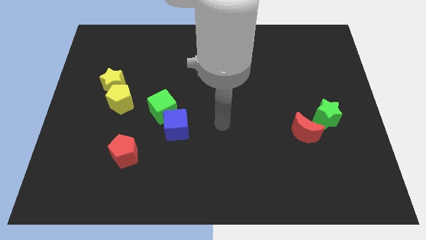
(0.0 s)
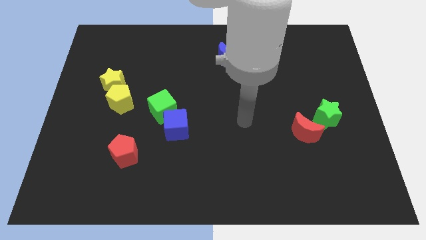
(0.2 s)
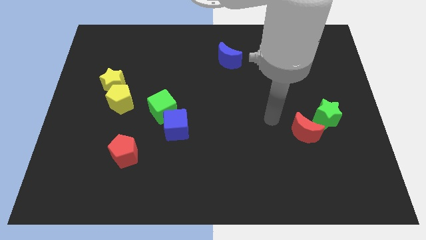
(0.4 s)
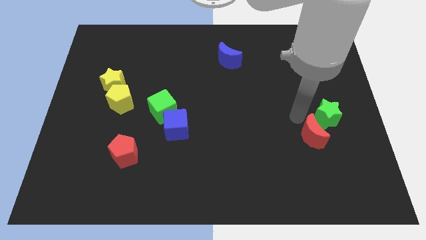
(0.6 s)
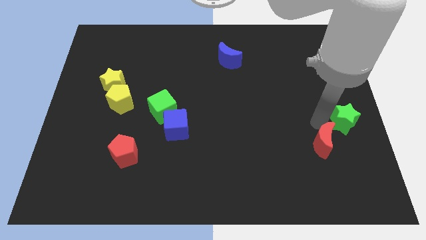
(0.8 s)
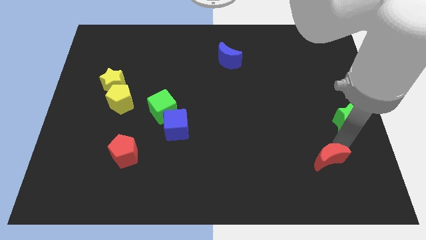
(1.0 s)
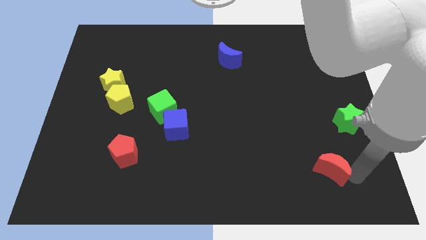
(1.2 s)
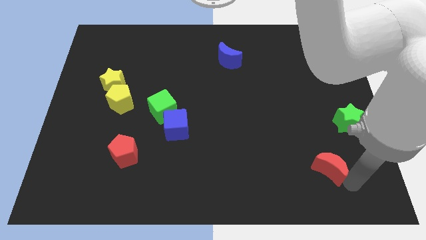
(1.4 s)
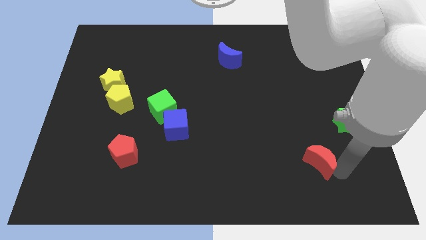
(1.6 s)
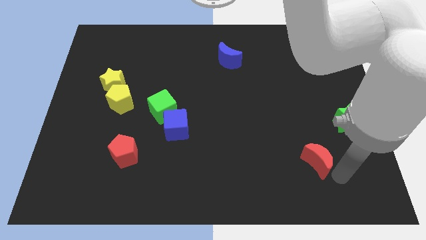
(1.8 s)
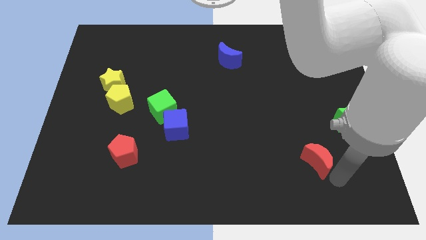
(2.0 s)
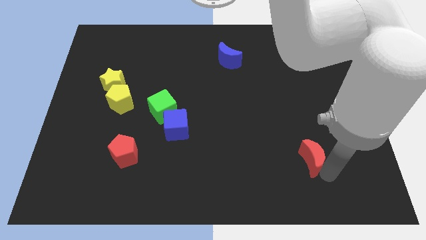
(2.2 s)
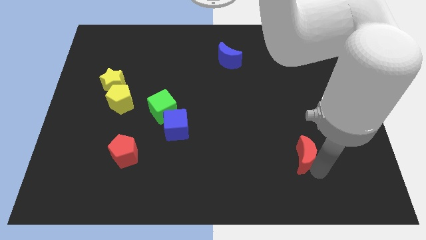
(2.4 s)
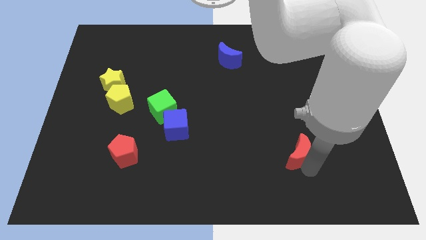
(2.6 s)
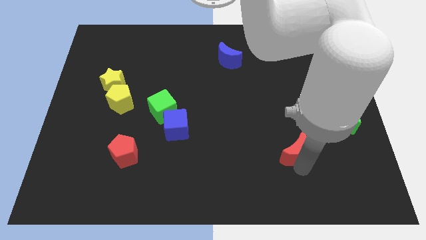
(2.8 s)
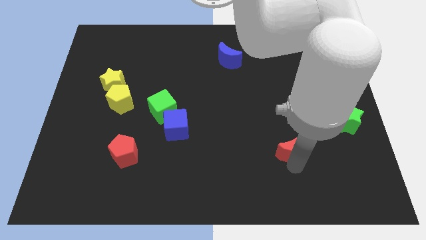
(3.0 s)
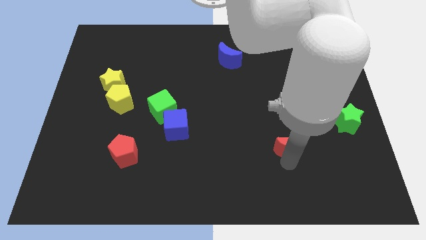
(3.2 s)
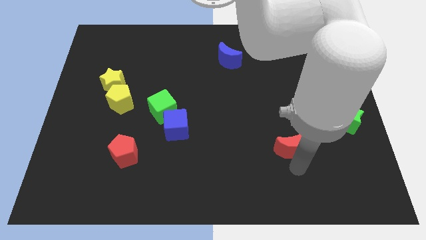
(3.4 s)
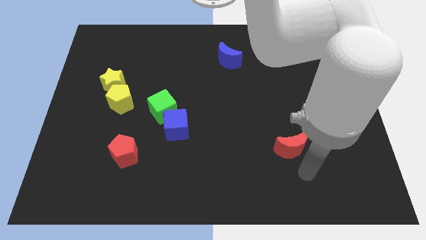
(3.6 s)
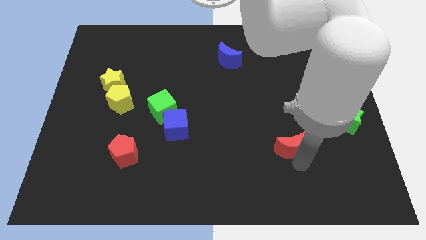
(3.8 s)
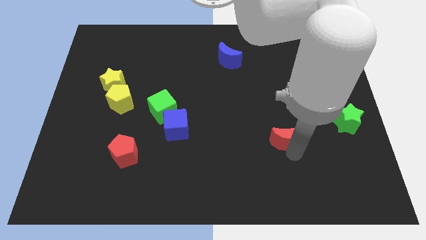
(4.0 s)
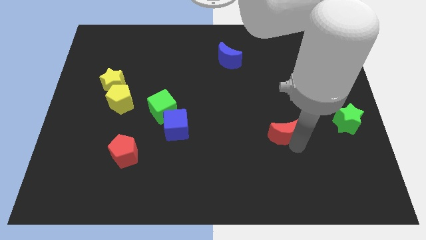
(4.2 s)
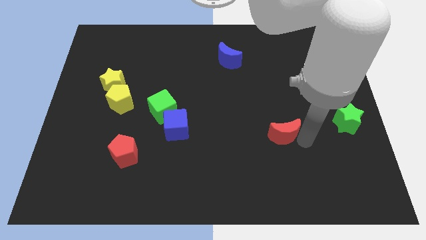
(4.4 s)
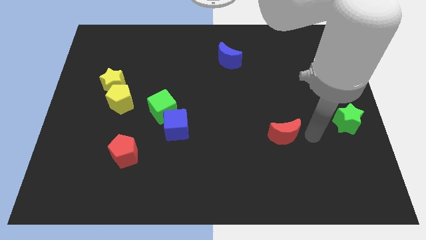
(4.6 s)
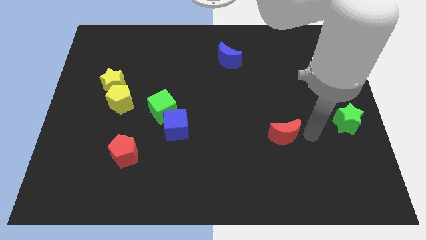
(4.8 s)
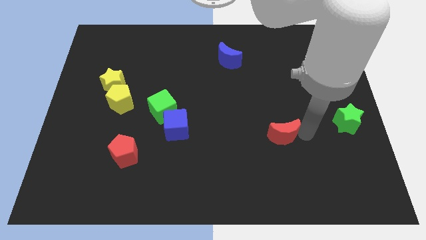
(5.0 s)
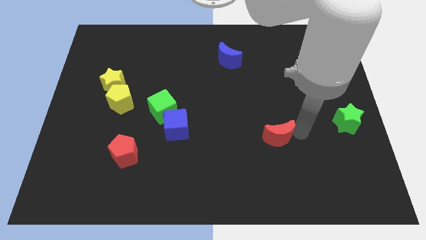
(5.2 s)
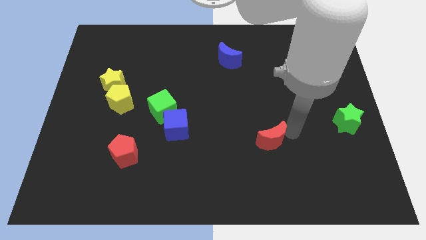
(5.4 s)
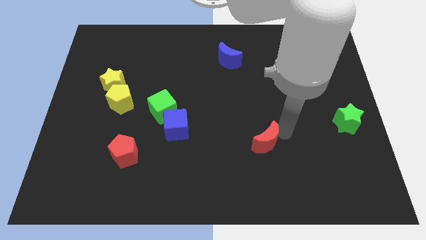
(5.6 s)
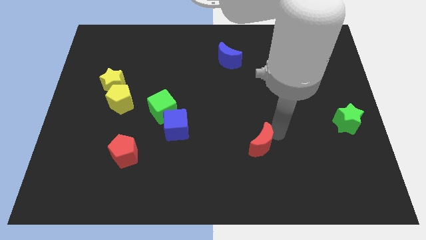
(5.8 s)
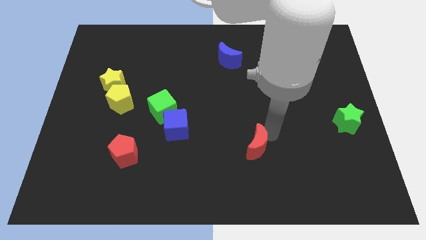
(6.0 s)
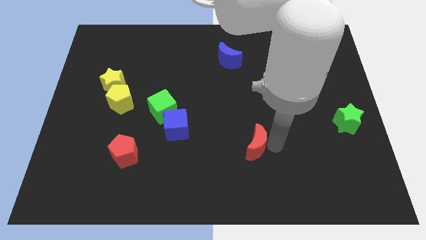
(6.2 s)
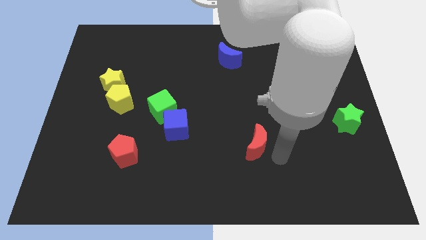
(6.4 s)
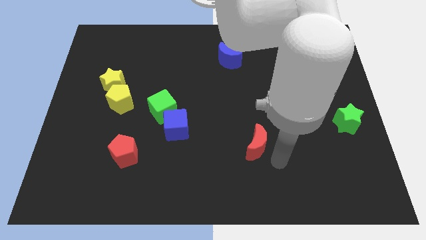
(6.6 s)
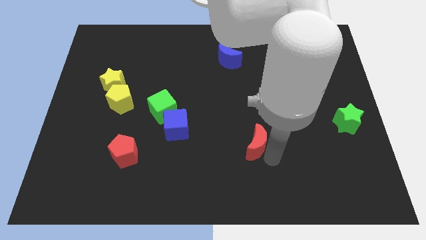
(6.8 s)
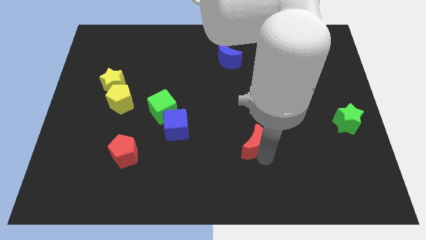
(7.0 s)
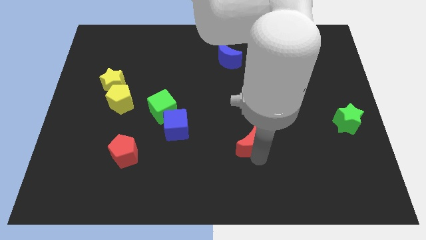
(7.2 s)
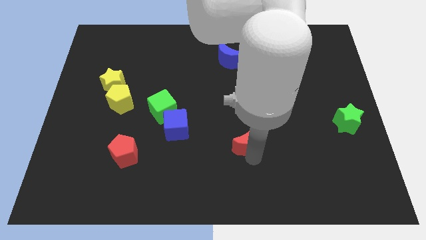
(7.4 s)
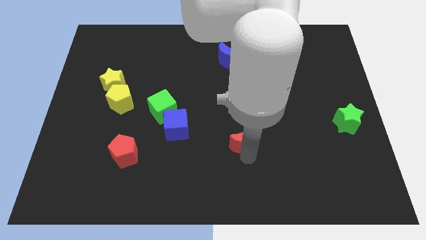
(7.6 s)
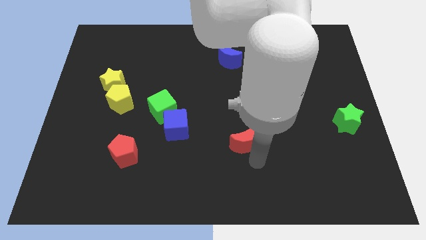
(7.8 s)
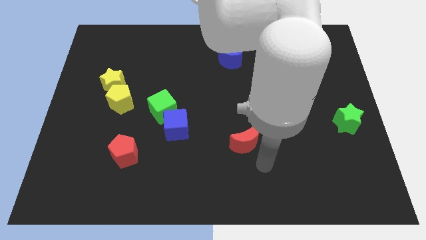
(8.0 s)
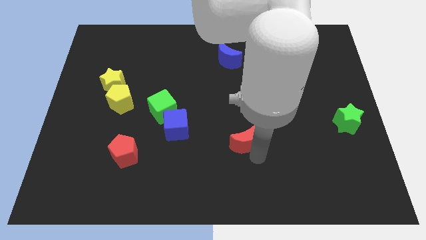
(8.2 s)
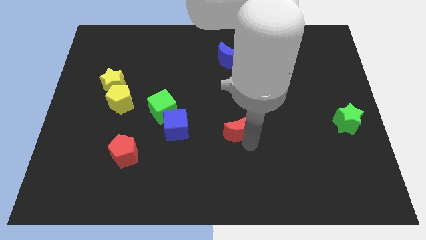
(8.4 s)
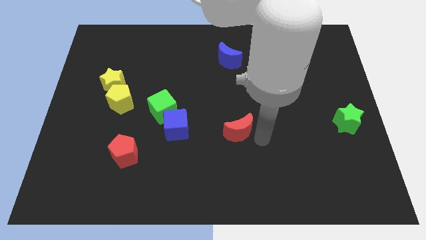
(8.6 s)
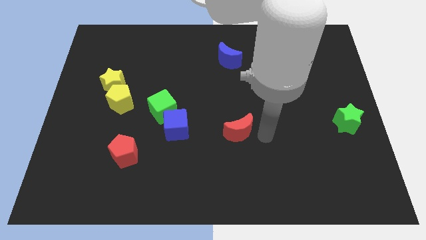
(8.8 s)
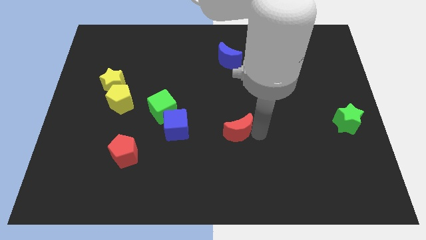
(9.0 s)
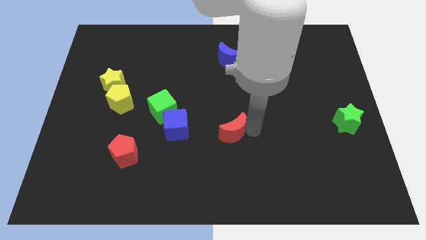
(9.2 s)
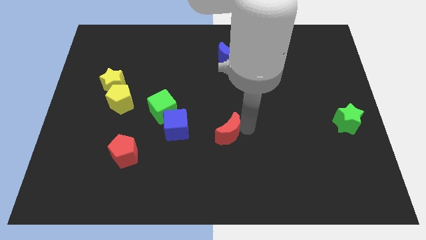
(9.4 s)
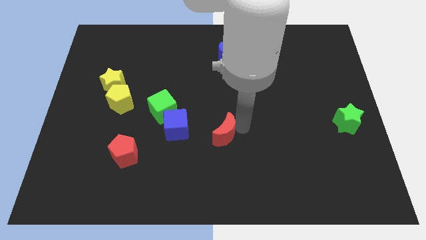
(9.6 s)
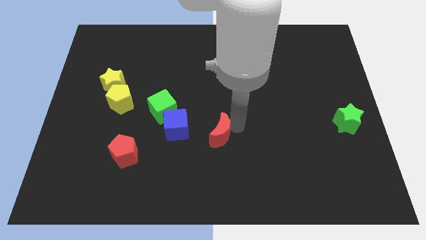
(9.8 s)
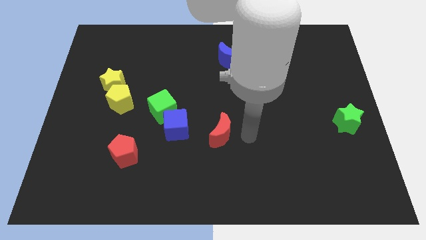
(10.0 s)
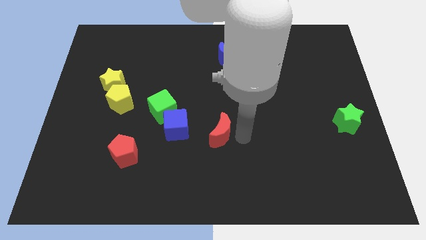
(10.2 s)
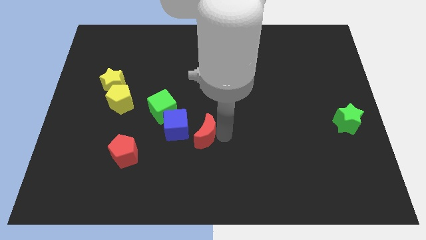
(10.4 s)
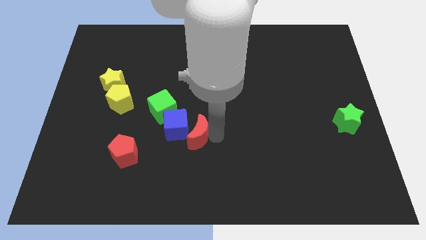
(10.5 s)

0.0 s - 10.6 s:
move the red moon to the blue cube

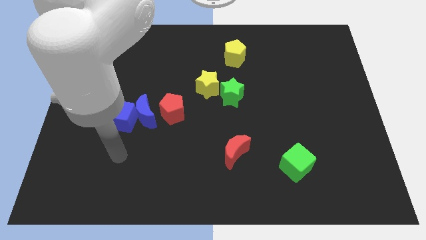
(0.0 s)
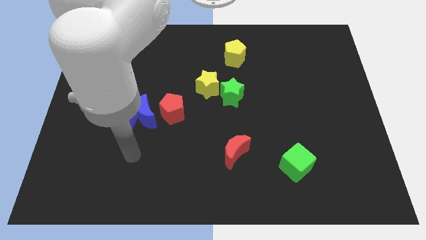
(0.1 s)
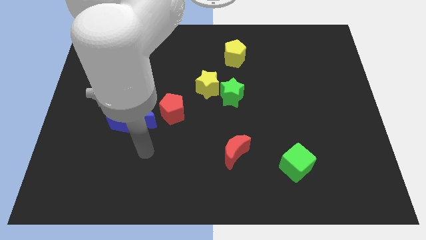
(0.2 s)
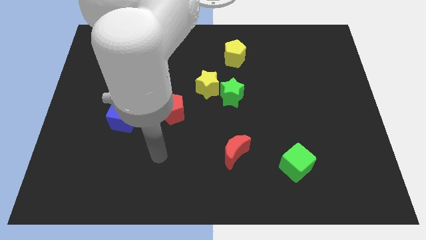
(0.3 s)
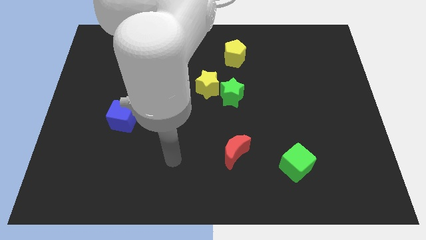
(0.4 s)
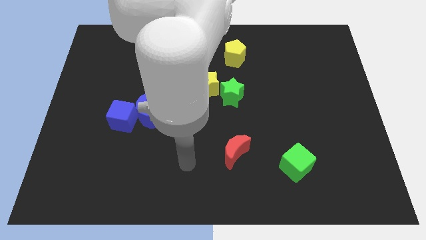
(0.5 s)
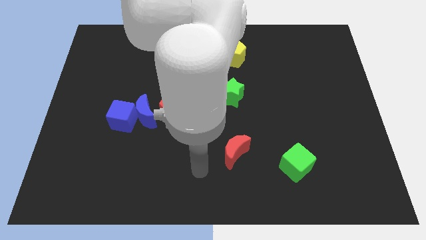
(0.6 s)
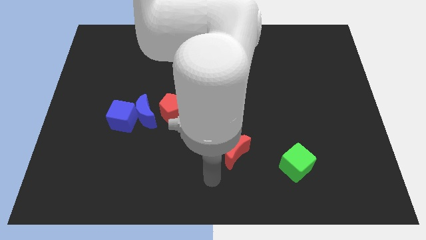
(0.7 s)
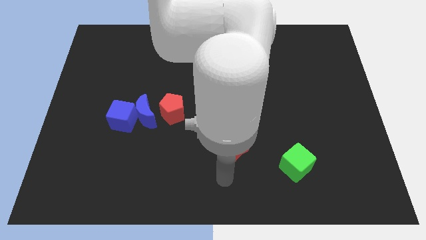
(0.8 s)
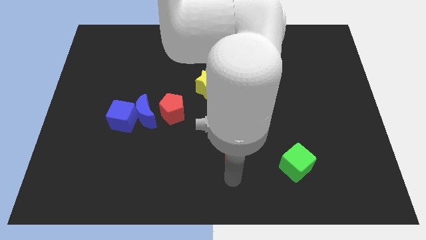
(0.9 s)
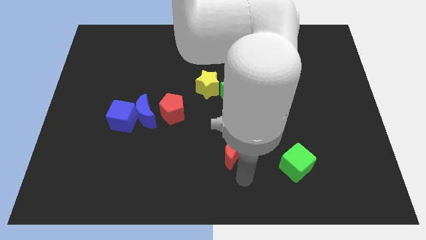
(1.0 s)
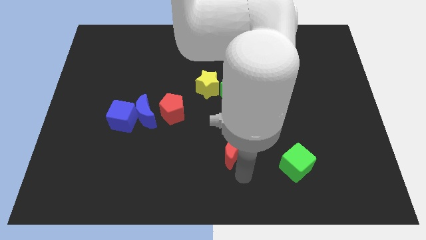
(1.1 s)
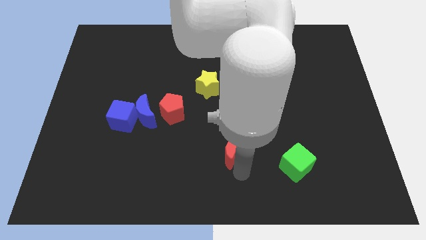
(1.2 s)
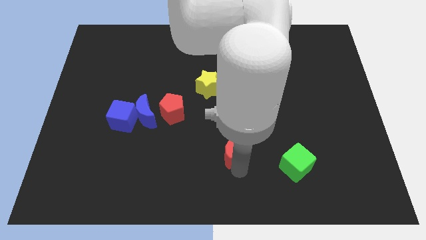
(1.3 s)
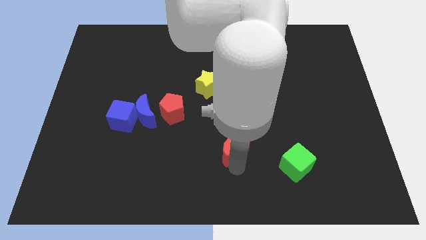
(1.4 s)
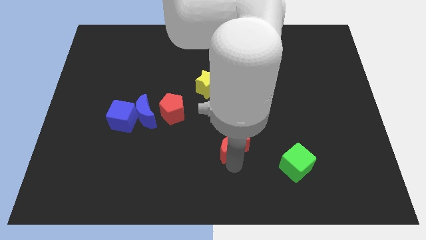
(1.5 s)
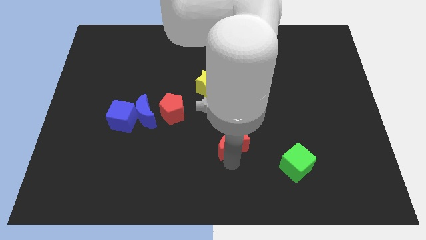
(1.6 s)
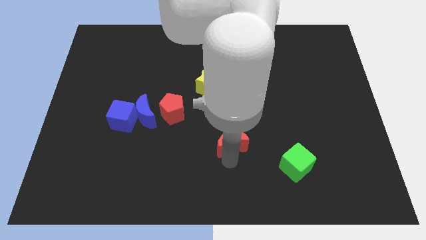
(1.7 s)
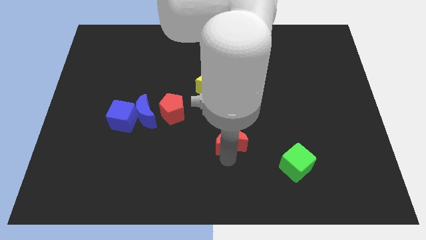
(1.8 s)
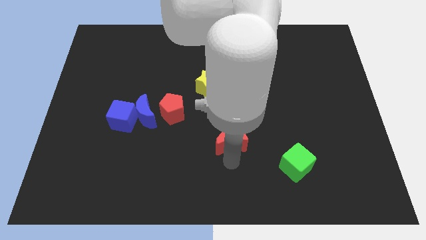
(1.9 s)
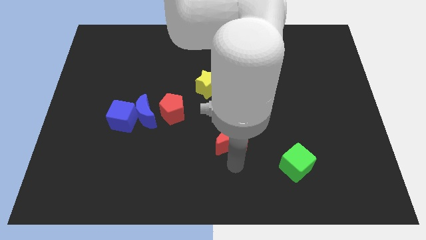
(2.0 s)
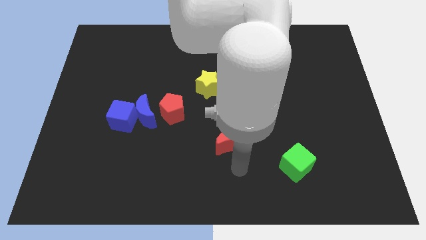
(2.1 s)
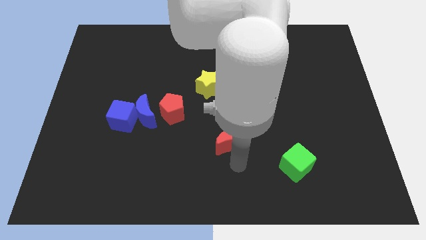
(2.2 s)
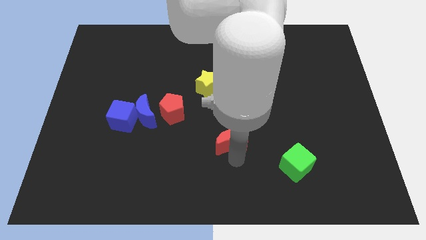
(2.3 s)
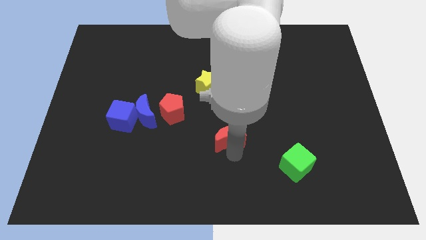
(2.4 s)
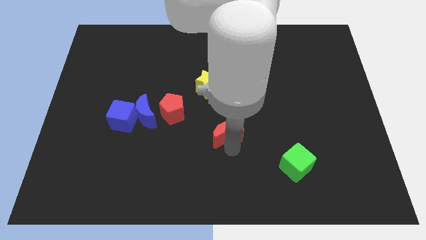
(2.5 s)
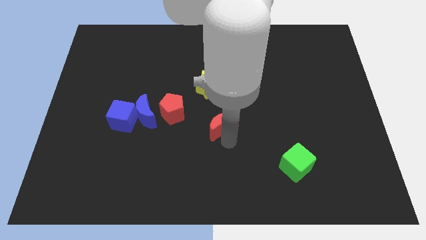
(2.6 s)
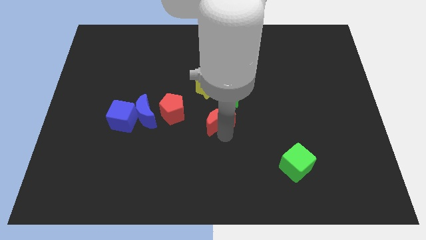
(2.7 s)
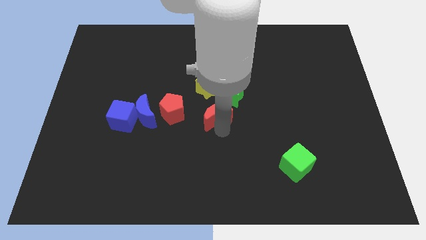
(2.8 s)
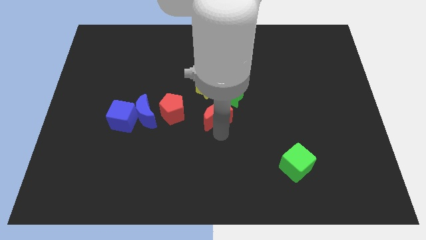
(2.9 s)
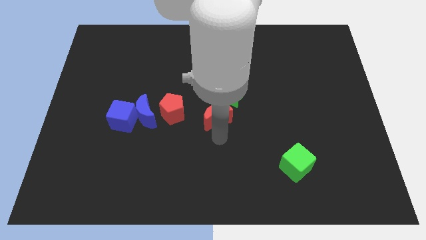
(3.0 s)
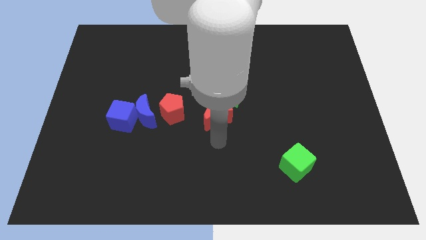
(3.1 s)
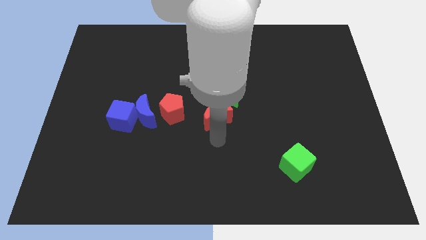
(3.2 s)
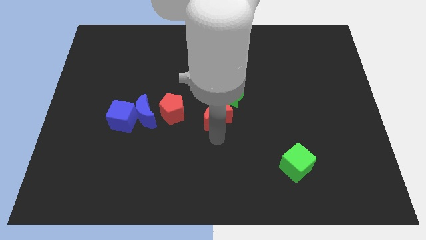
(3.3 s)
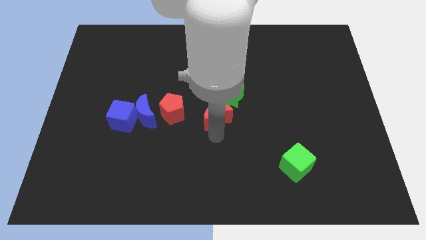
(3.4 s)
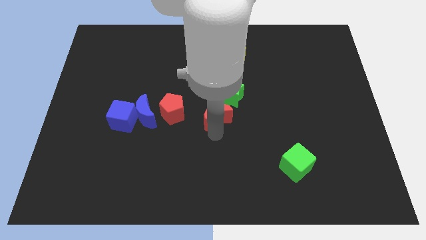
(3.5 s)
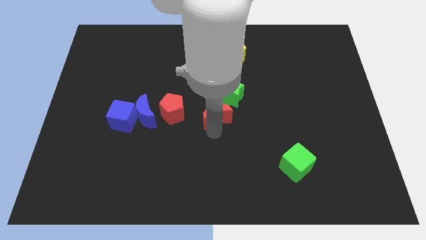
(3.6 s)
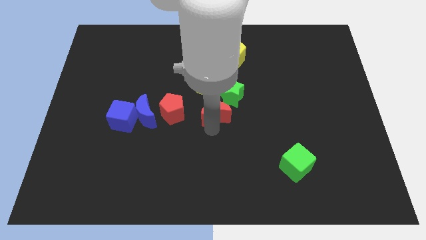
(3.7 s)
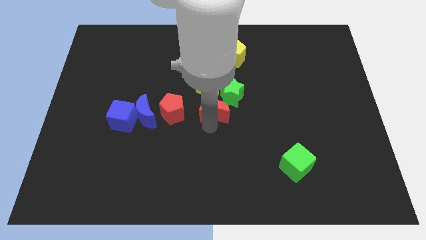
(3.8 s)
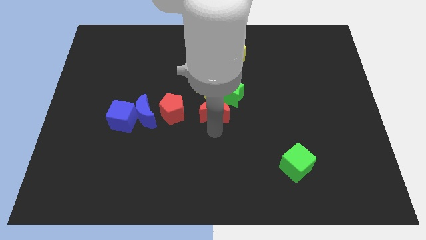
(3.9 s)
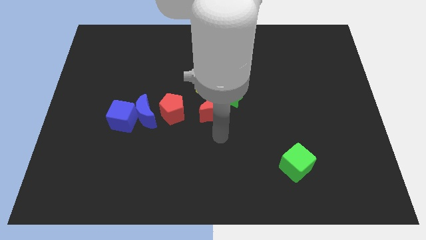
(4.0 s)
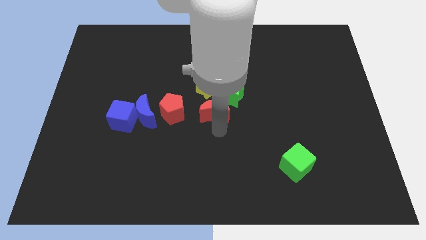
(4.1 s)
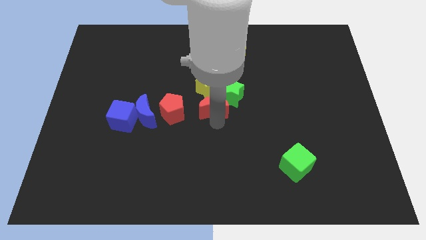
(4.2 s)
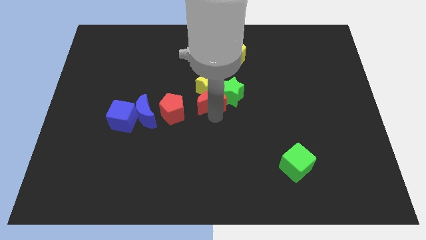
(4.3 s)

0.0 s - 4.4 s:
move the red moon next to the yellow star
